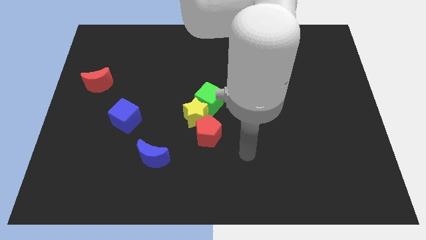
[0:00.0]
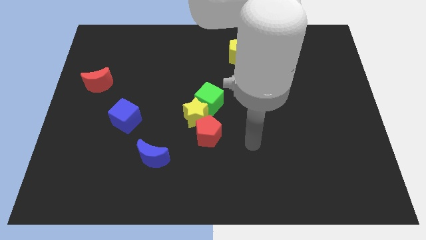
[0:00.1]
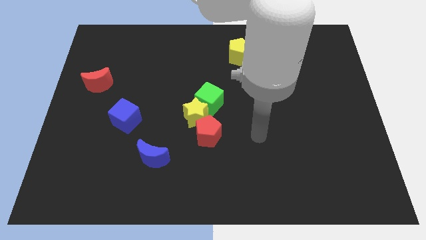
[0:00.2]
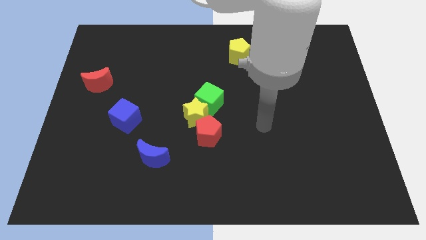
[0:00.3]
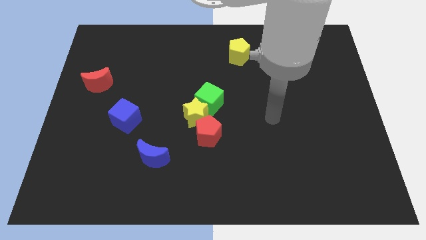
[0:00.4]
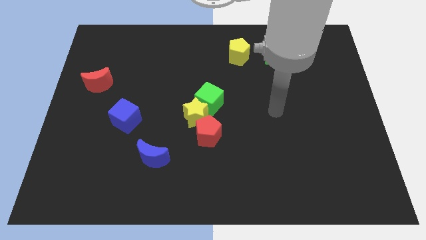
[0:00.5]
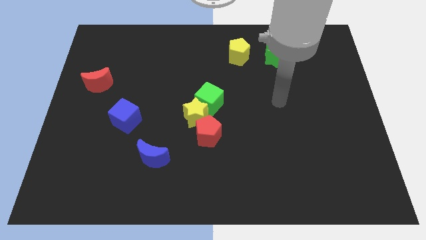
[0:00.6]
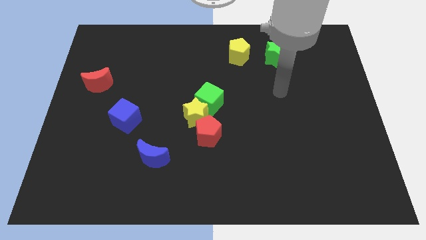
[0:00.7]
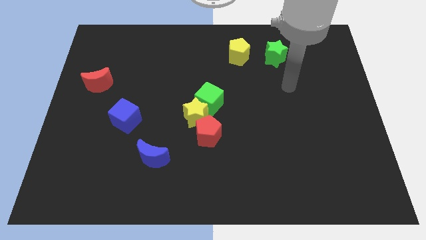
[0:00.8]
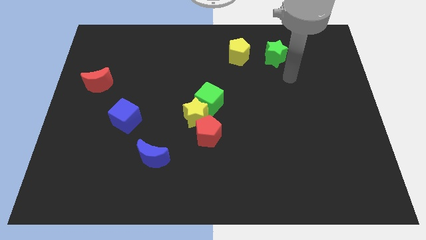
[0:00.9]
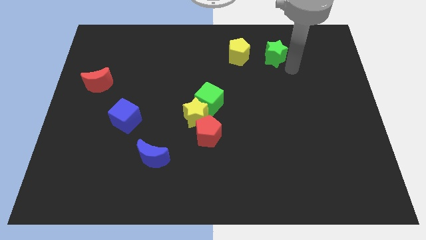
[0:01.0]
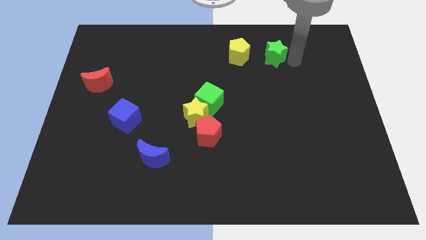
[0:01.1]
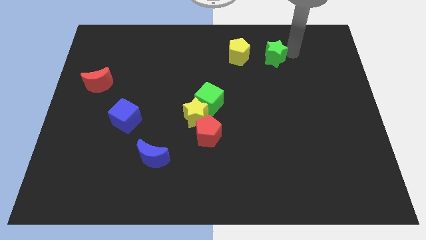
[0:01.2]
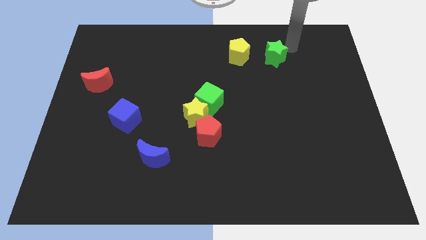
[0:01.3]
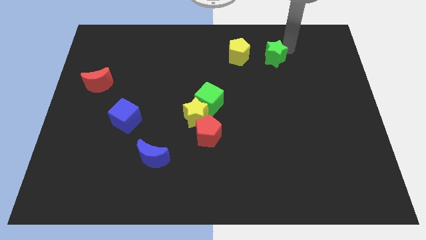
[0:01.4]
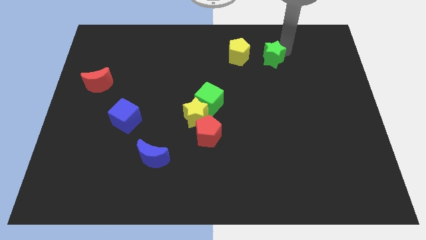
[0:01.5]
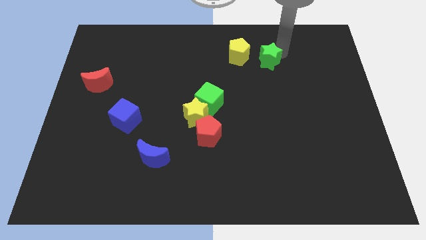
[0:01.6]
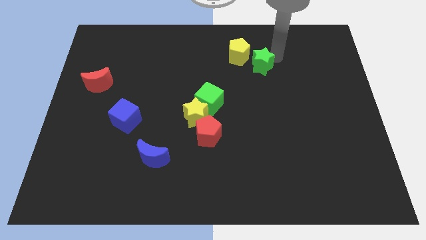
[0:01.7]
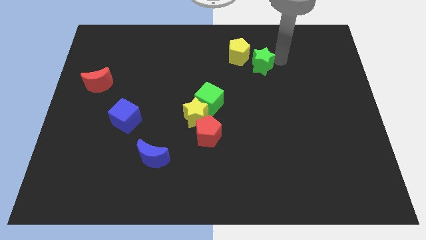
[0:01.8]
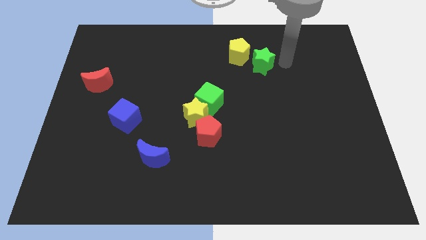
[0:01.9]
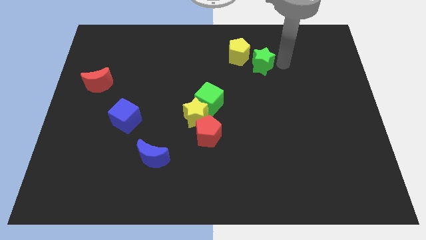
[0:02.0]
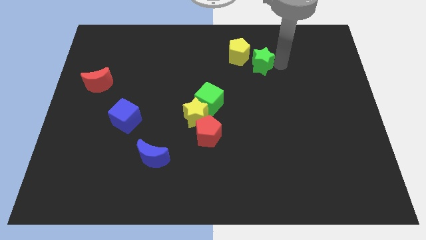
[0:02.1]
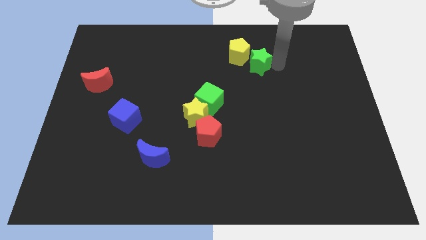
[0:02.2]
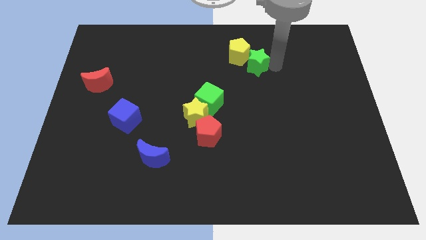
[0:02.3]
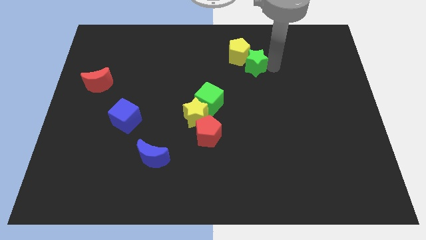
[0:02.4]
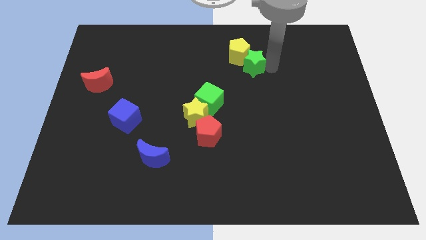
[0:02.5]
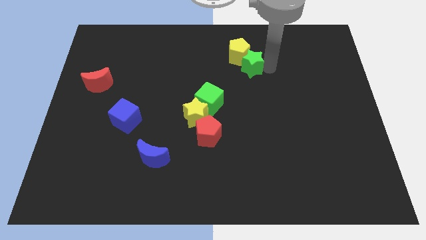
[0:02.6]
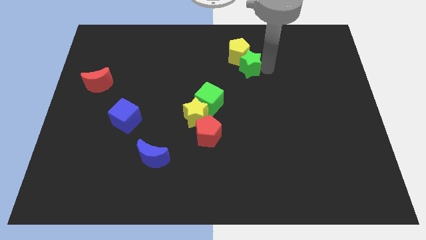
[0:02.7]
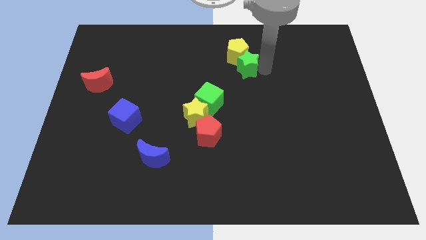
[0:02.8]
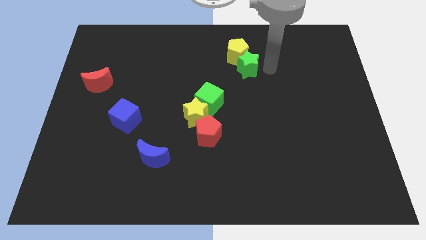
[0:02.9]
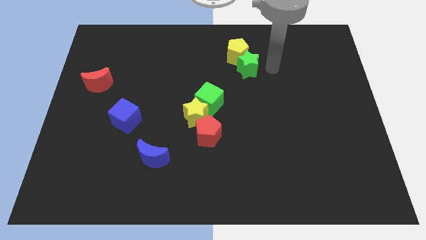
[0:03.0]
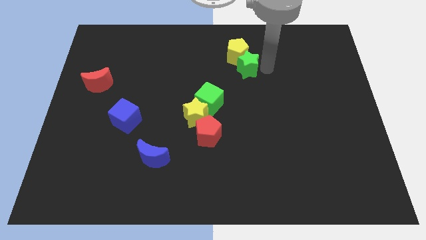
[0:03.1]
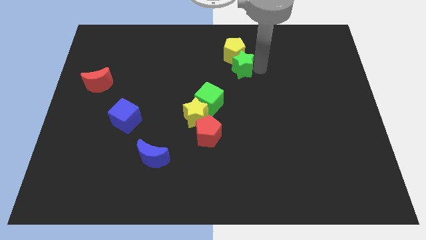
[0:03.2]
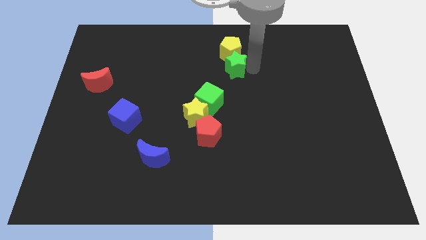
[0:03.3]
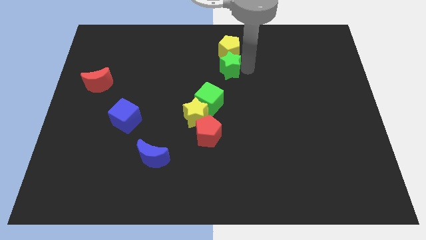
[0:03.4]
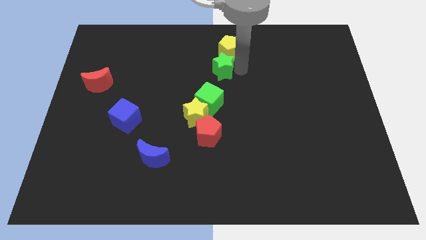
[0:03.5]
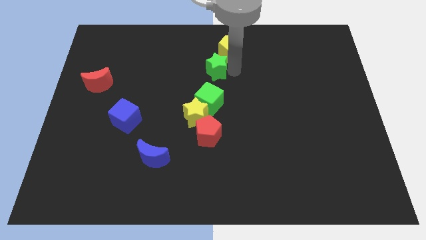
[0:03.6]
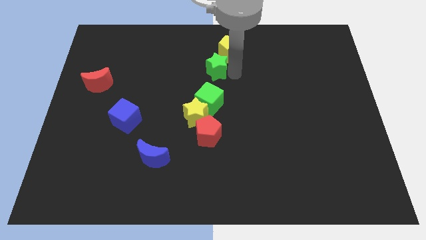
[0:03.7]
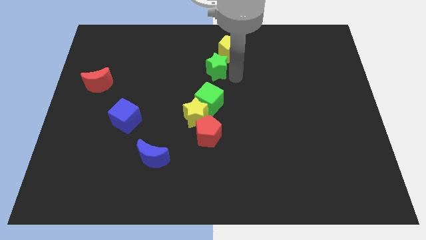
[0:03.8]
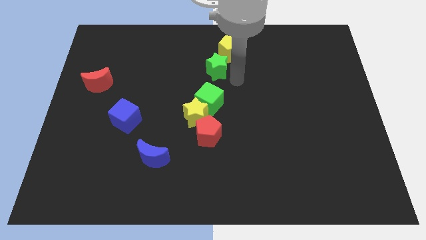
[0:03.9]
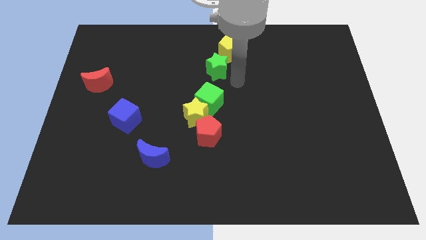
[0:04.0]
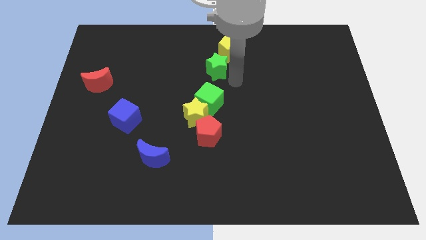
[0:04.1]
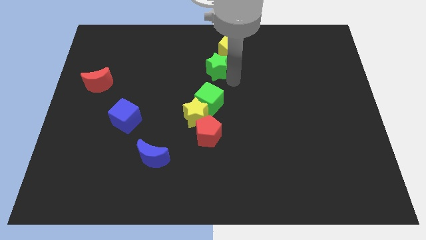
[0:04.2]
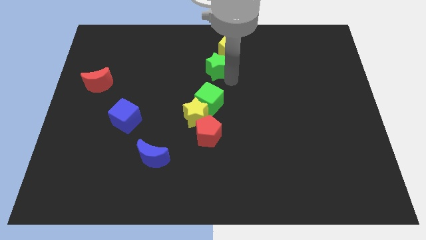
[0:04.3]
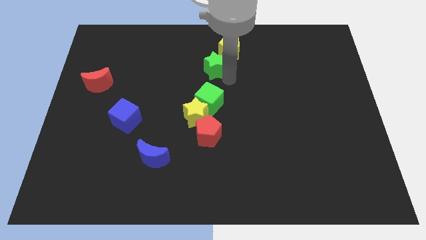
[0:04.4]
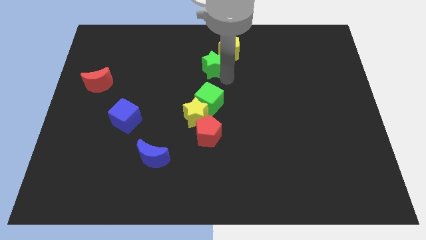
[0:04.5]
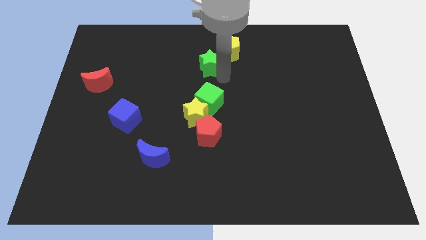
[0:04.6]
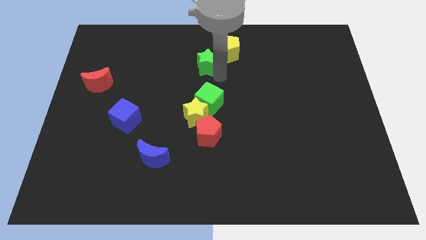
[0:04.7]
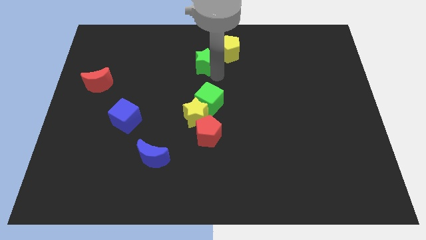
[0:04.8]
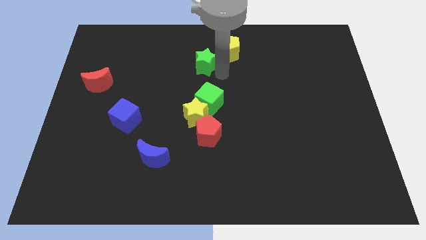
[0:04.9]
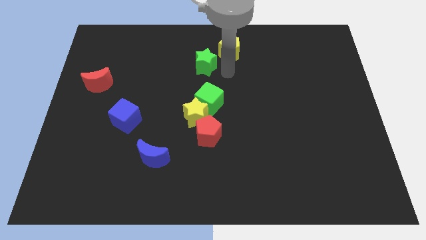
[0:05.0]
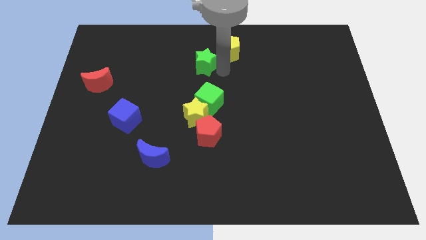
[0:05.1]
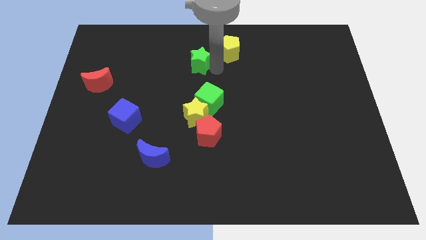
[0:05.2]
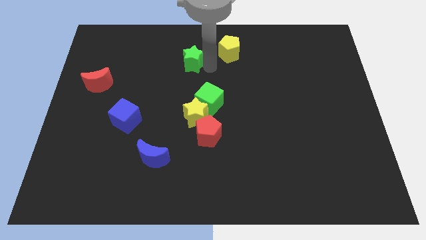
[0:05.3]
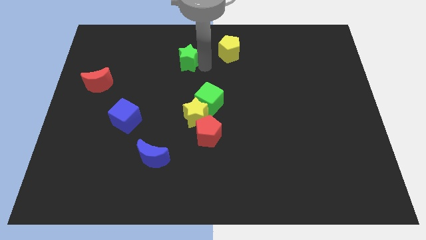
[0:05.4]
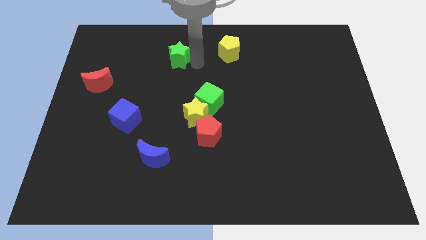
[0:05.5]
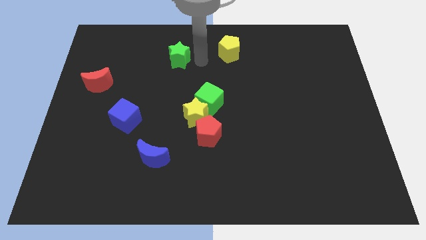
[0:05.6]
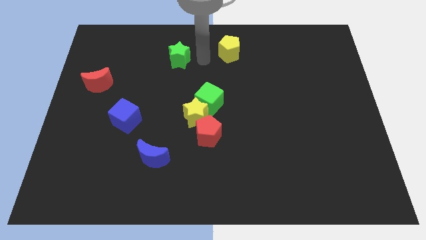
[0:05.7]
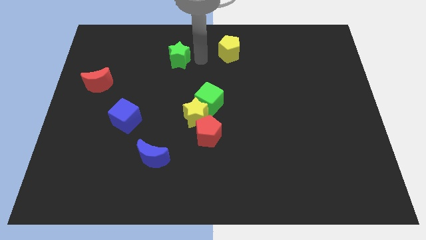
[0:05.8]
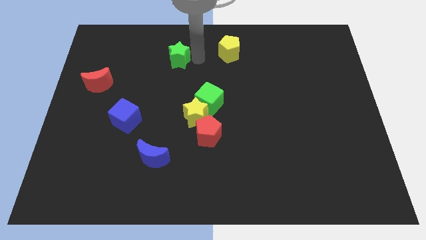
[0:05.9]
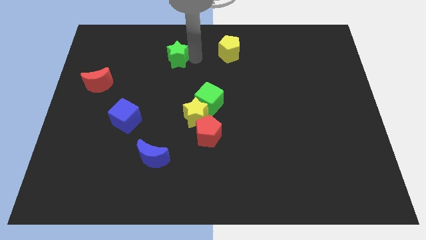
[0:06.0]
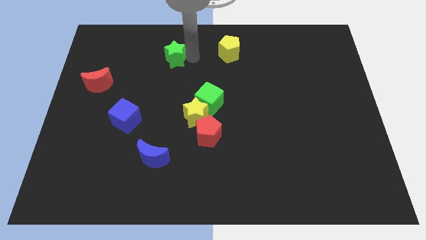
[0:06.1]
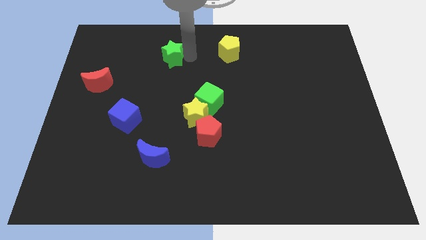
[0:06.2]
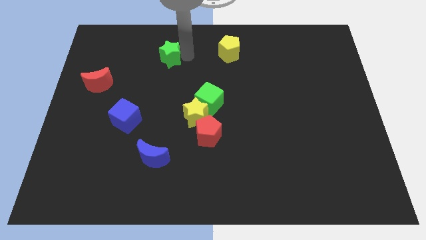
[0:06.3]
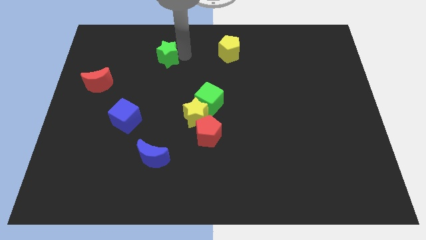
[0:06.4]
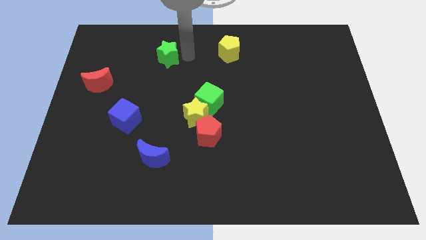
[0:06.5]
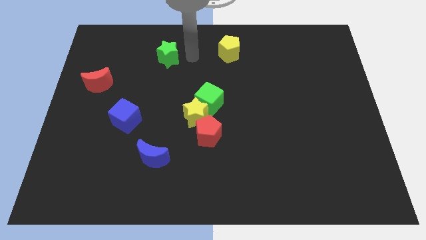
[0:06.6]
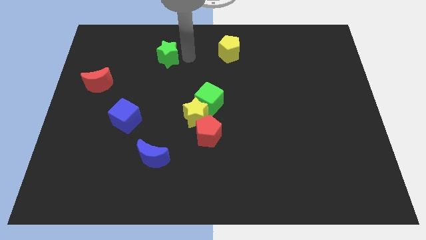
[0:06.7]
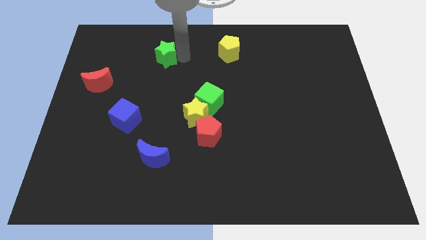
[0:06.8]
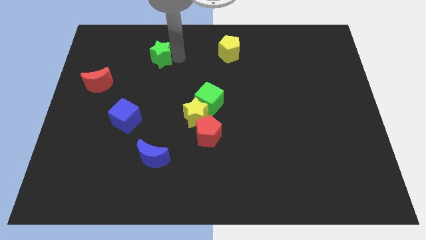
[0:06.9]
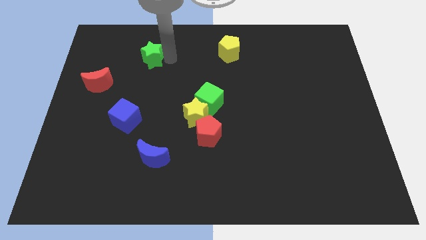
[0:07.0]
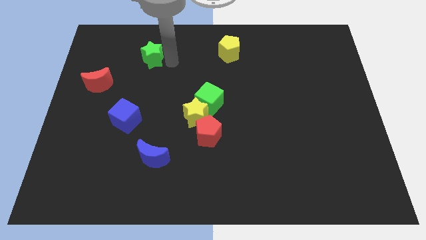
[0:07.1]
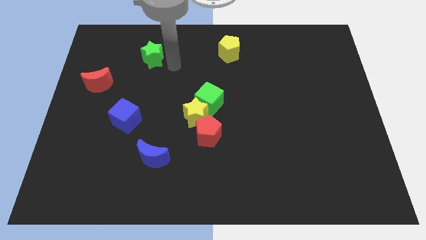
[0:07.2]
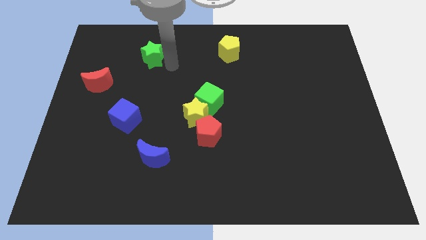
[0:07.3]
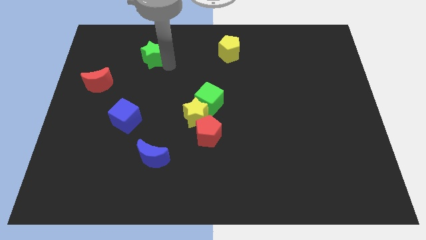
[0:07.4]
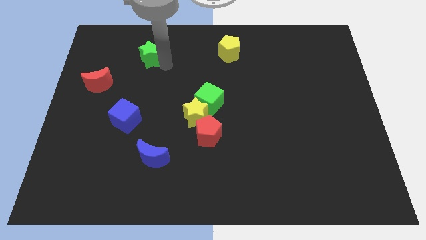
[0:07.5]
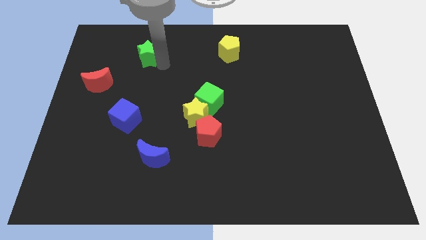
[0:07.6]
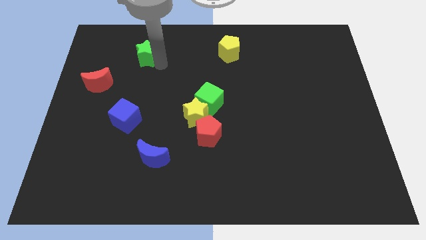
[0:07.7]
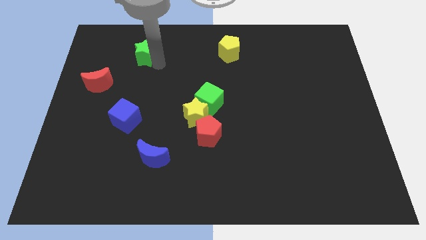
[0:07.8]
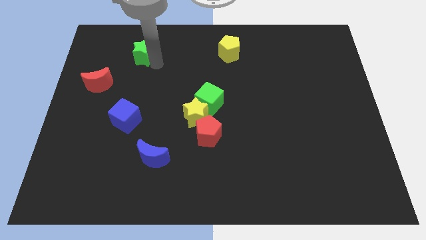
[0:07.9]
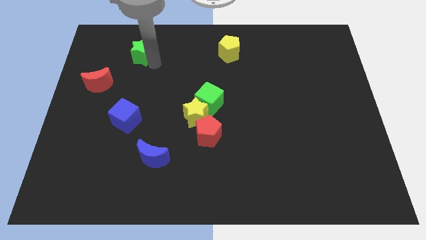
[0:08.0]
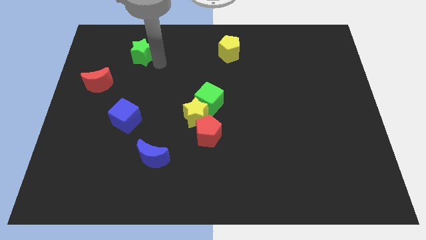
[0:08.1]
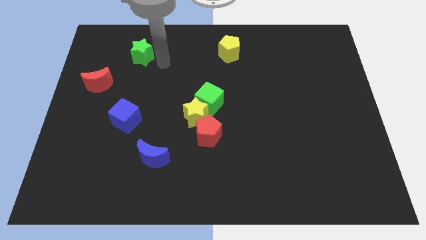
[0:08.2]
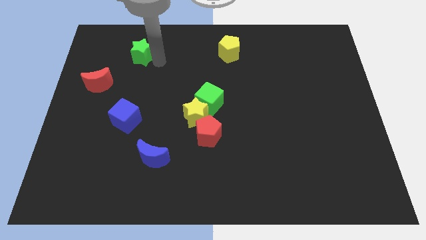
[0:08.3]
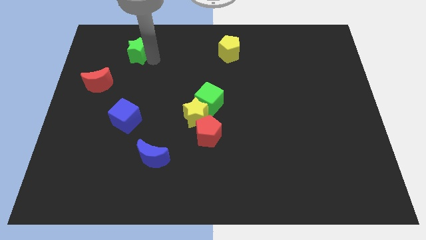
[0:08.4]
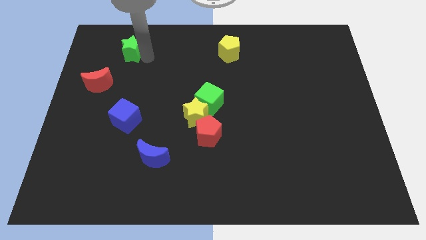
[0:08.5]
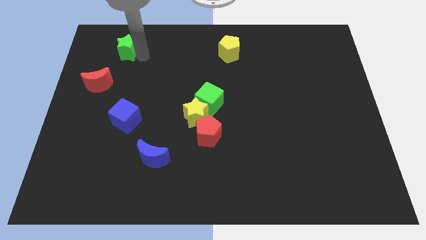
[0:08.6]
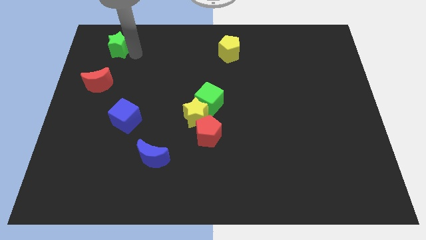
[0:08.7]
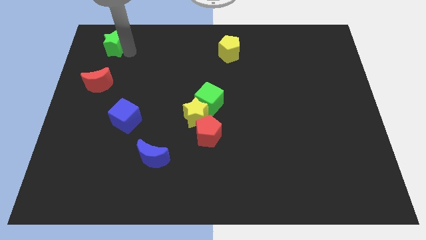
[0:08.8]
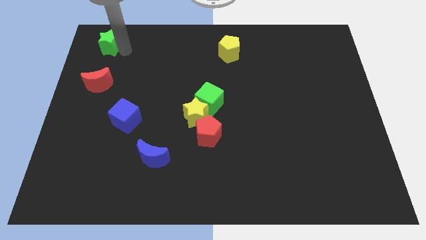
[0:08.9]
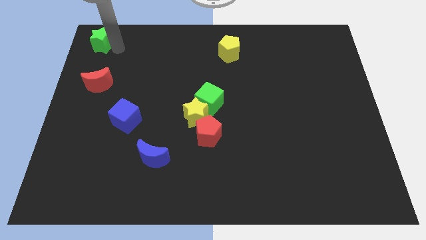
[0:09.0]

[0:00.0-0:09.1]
move the green star to the top left of the board
